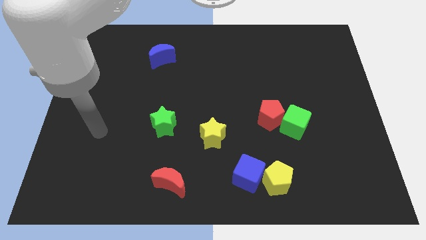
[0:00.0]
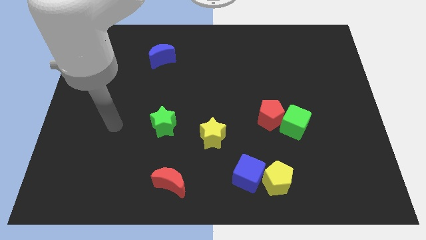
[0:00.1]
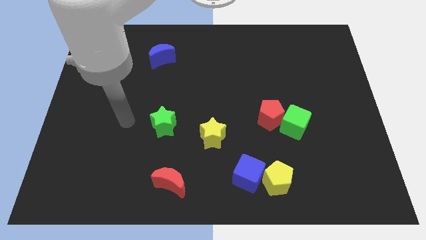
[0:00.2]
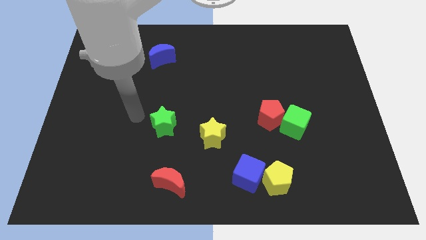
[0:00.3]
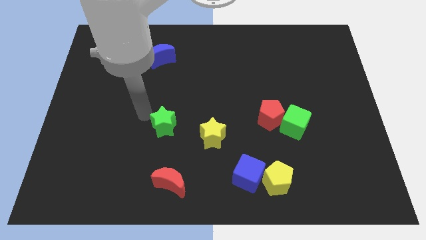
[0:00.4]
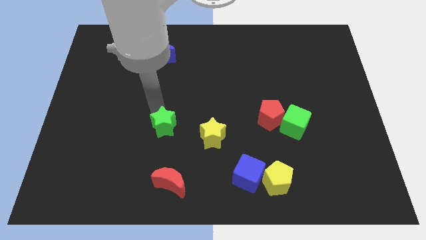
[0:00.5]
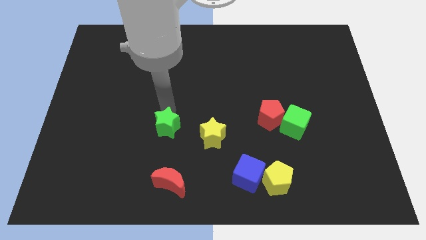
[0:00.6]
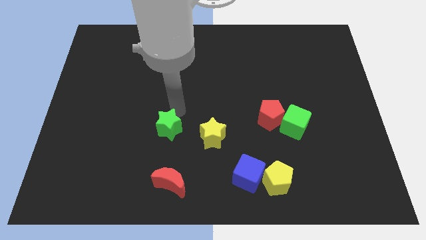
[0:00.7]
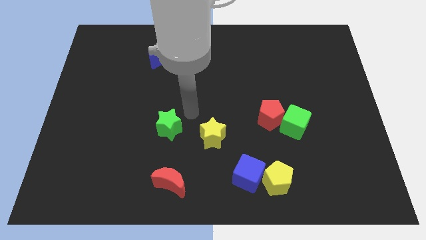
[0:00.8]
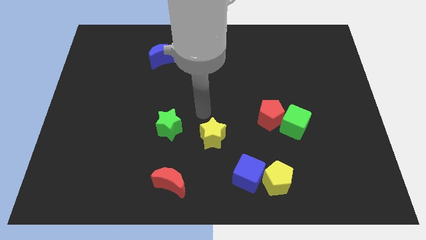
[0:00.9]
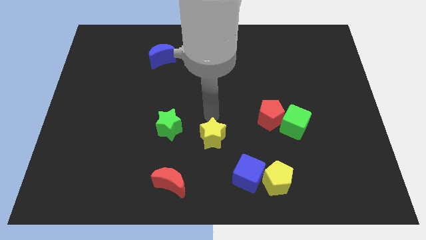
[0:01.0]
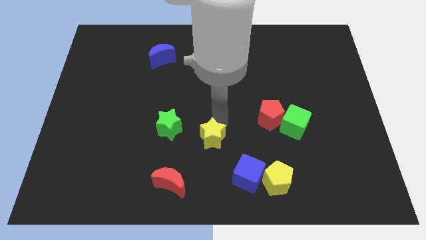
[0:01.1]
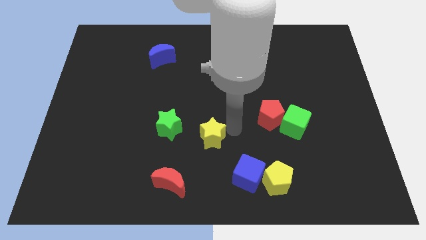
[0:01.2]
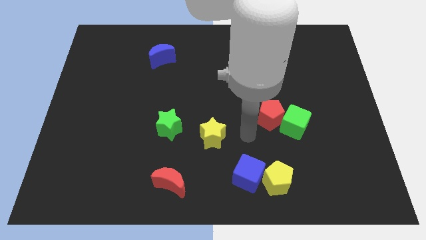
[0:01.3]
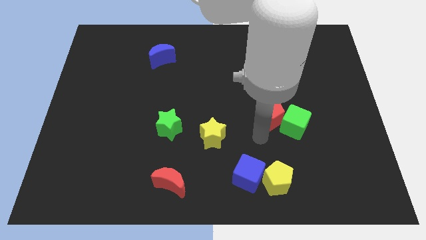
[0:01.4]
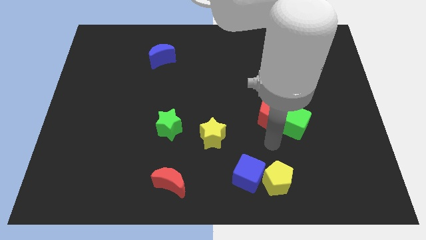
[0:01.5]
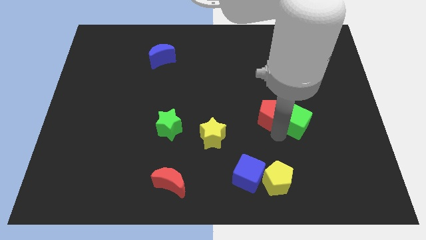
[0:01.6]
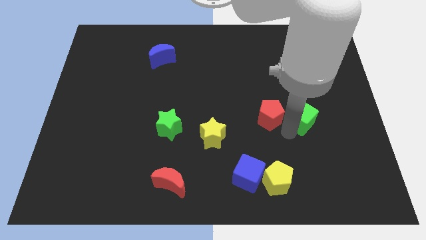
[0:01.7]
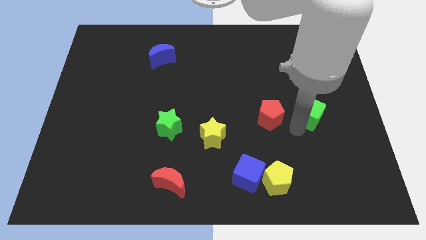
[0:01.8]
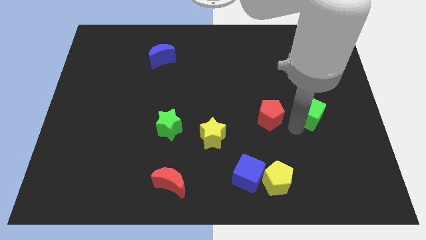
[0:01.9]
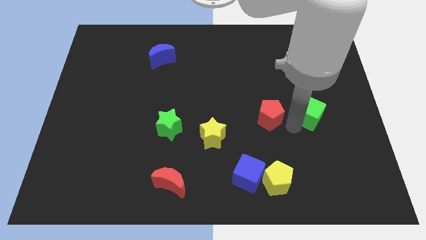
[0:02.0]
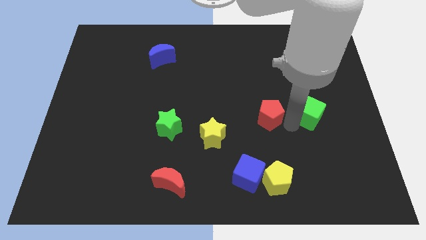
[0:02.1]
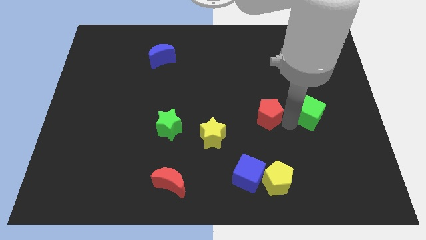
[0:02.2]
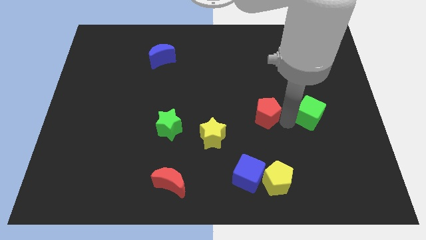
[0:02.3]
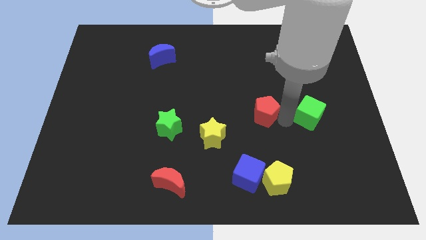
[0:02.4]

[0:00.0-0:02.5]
pull the red pentagon apart from the green cube

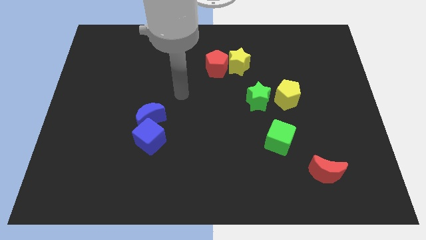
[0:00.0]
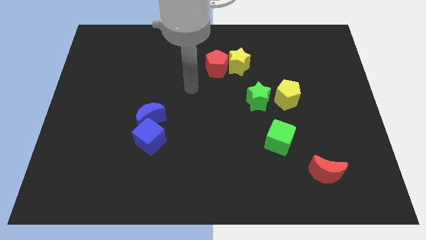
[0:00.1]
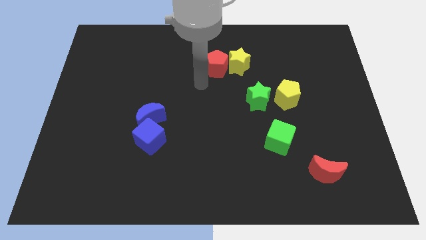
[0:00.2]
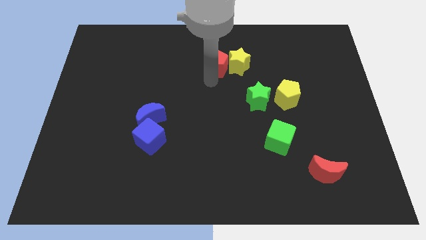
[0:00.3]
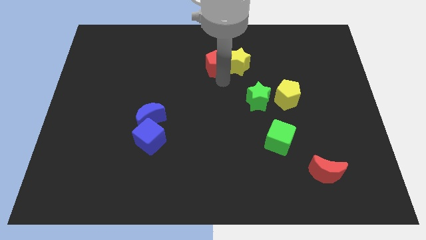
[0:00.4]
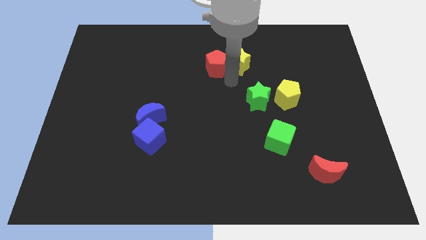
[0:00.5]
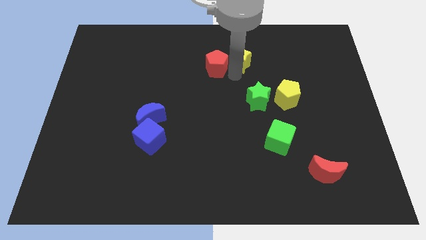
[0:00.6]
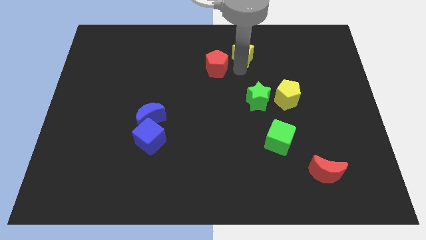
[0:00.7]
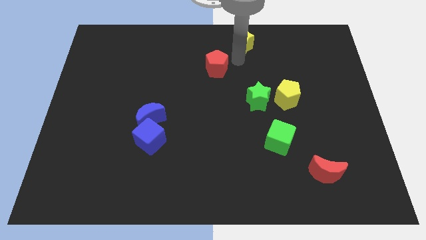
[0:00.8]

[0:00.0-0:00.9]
separate the red pentagon from the yellow star

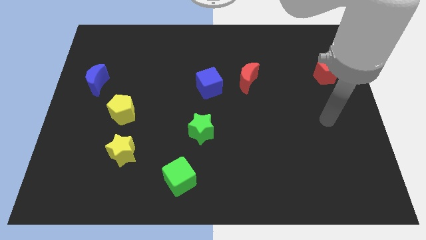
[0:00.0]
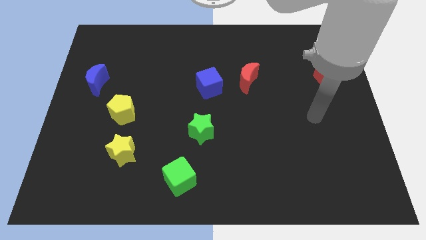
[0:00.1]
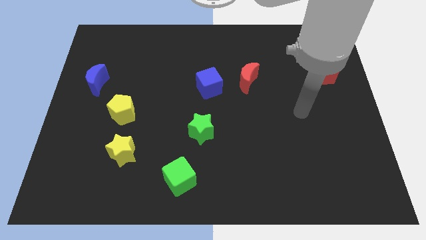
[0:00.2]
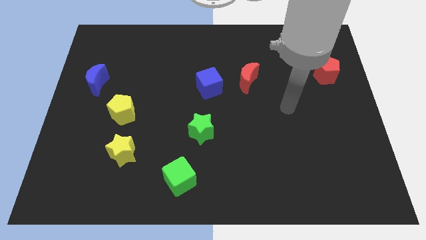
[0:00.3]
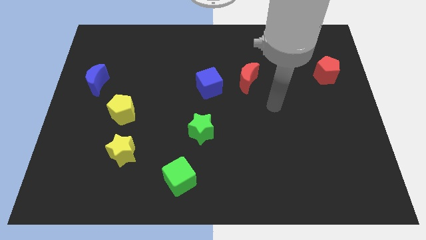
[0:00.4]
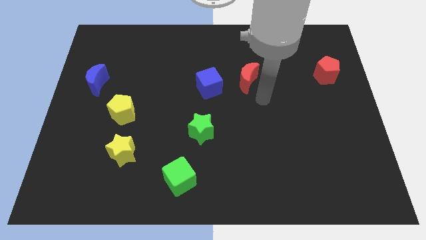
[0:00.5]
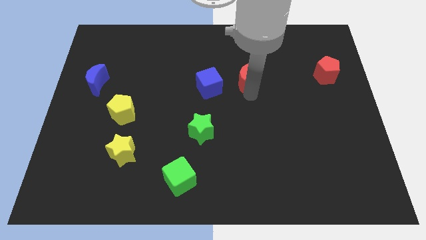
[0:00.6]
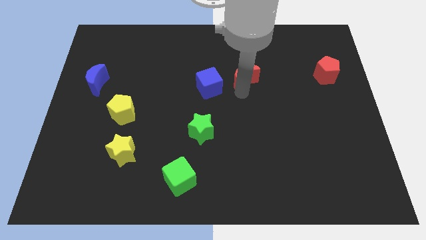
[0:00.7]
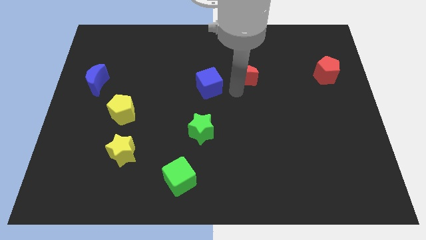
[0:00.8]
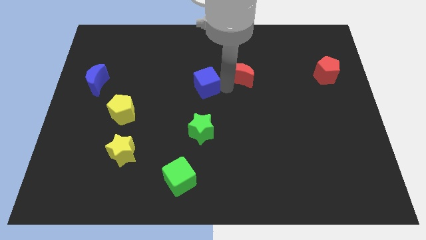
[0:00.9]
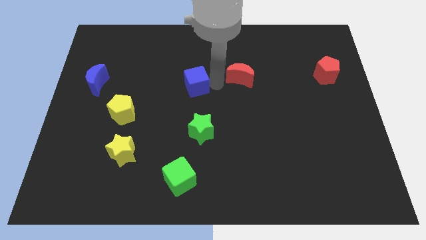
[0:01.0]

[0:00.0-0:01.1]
pull the red moon apart from the blue cube

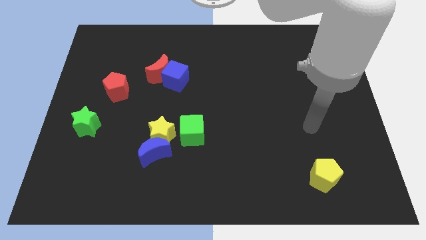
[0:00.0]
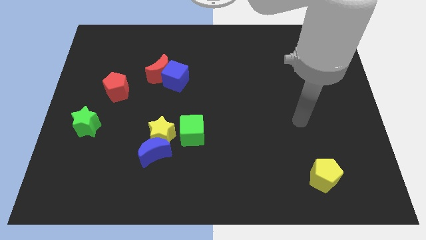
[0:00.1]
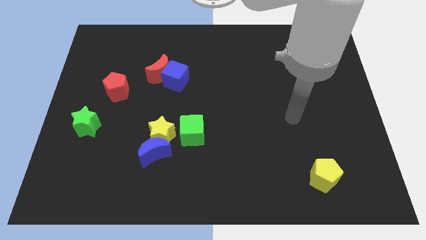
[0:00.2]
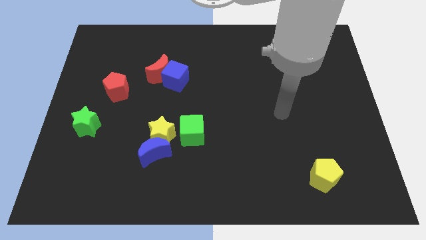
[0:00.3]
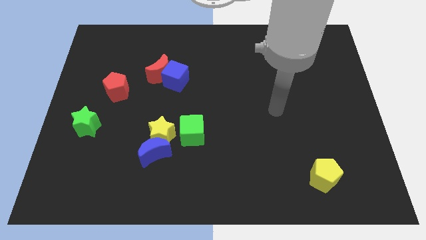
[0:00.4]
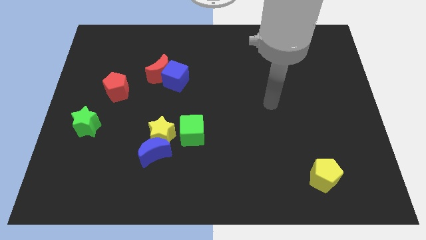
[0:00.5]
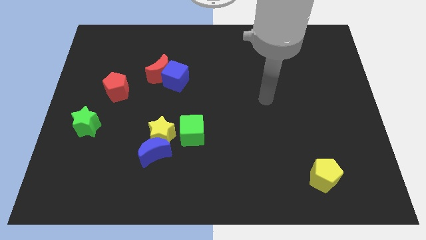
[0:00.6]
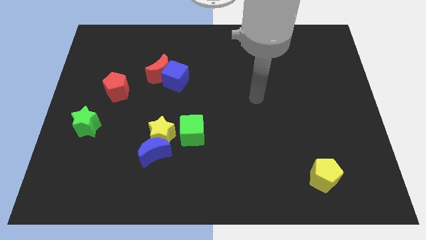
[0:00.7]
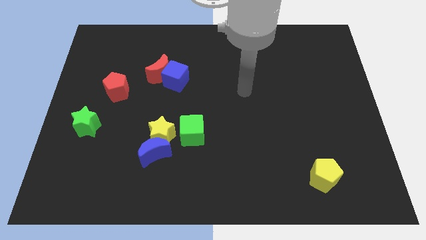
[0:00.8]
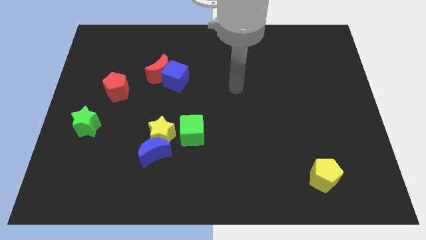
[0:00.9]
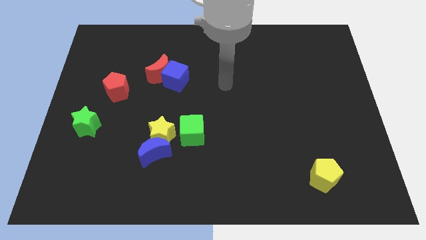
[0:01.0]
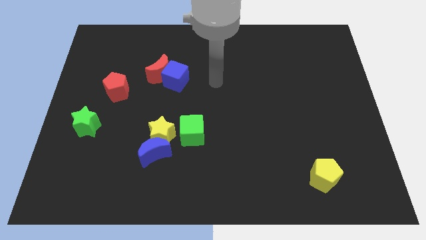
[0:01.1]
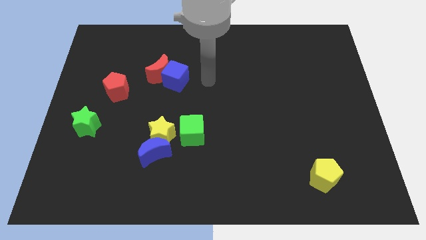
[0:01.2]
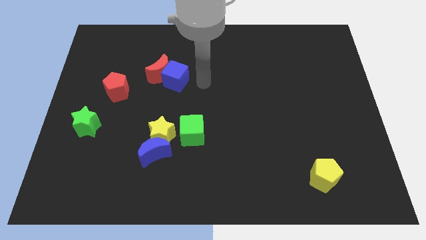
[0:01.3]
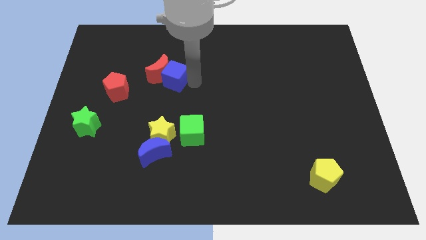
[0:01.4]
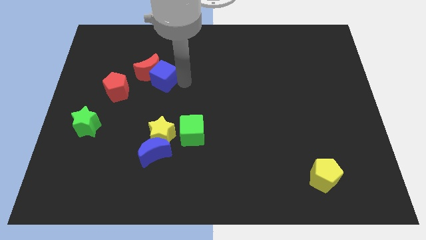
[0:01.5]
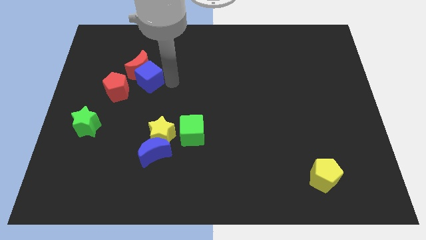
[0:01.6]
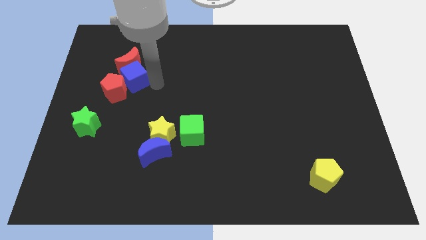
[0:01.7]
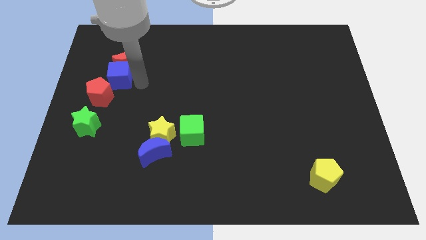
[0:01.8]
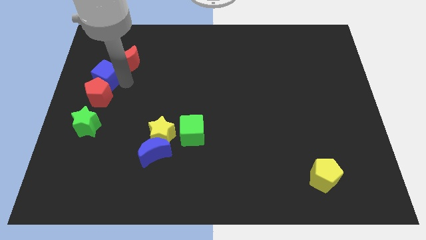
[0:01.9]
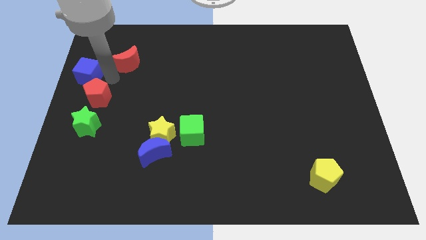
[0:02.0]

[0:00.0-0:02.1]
separate the red moon from the blue cube

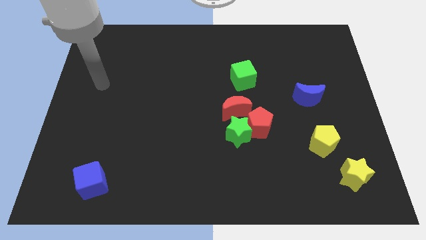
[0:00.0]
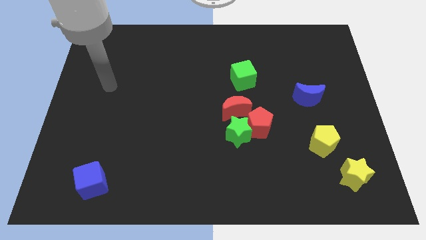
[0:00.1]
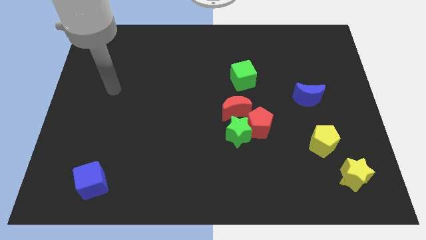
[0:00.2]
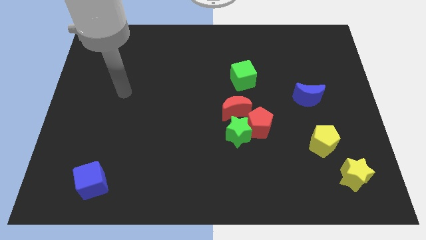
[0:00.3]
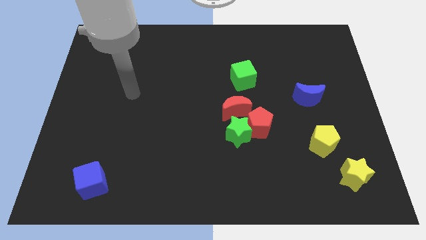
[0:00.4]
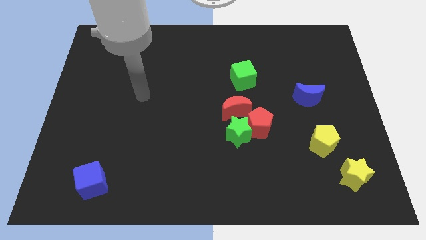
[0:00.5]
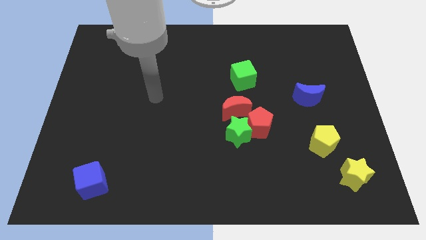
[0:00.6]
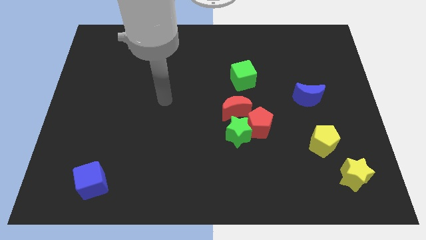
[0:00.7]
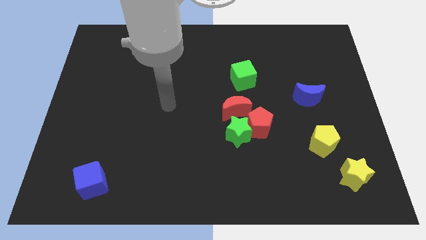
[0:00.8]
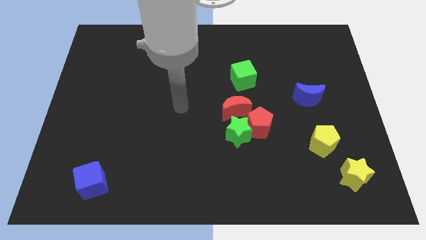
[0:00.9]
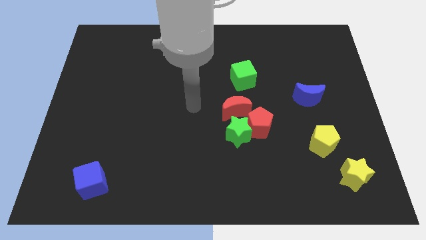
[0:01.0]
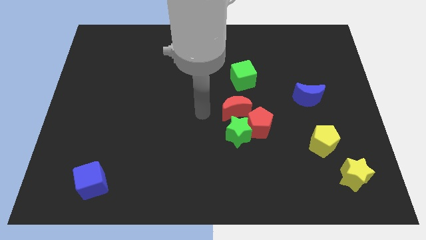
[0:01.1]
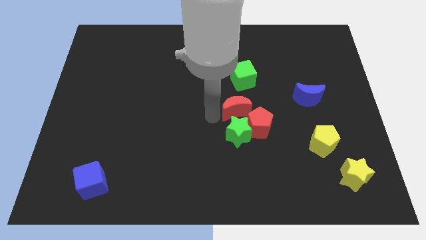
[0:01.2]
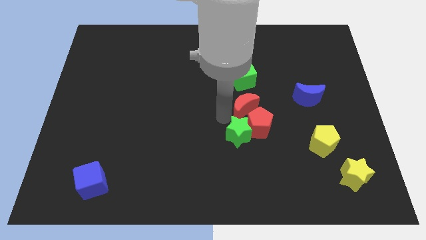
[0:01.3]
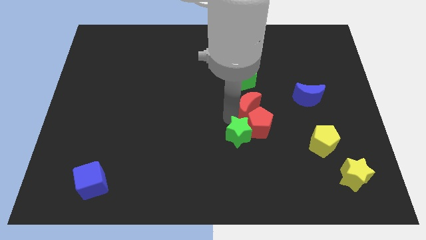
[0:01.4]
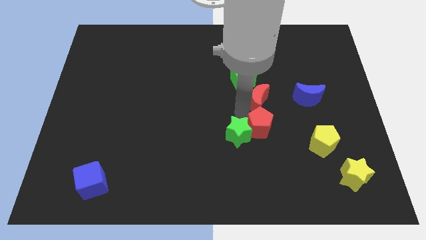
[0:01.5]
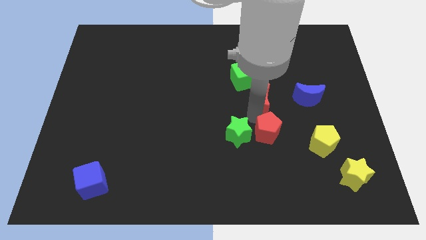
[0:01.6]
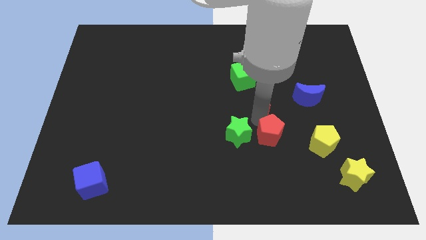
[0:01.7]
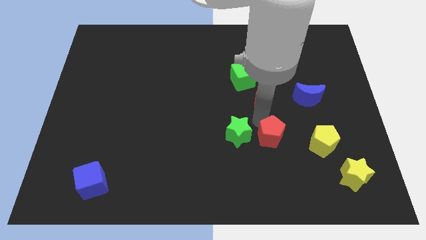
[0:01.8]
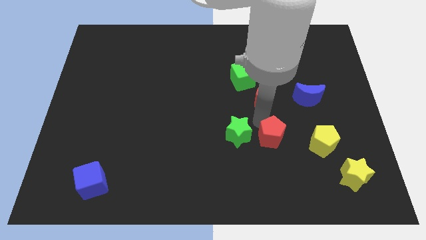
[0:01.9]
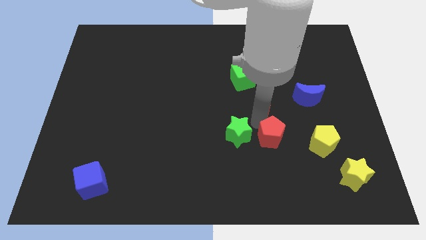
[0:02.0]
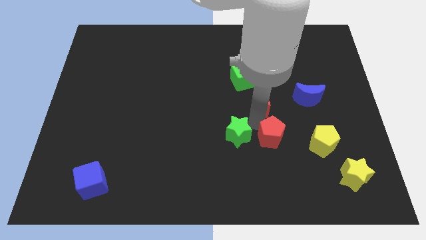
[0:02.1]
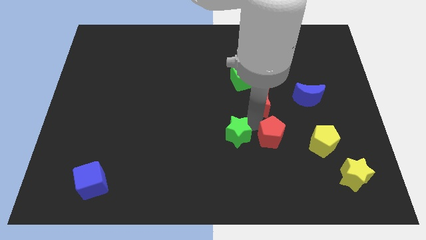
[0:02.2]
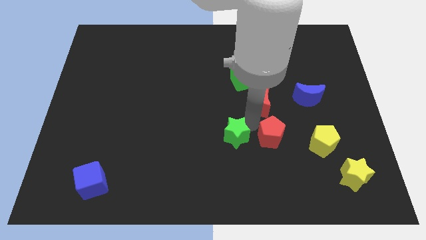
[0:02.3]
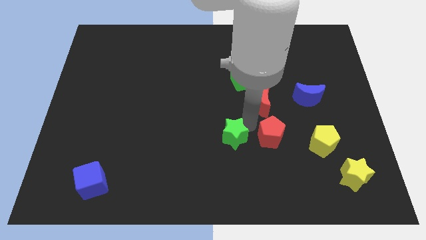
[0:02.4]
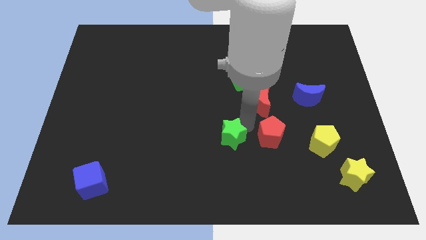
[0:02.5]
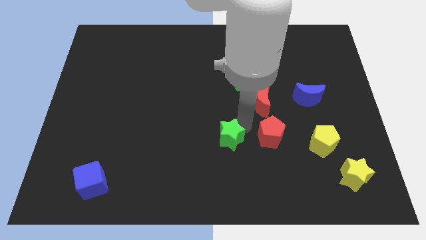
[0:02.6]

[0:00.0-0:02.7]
move the green star away from the red pentagon and red moon
